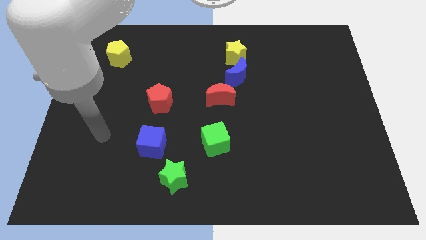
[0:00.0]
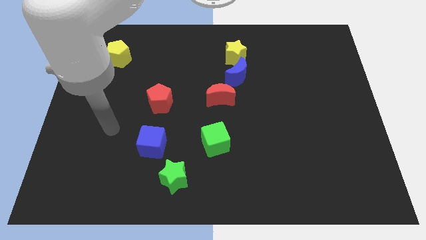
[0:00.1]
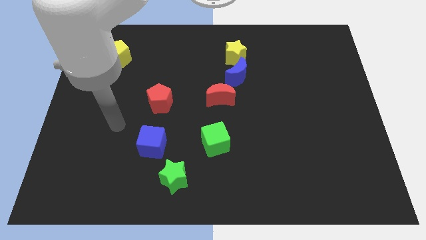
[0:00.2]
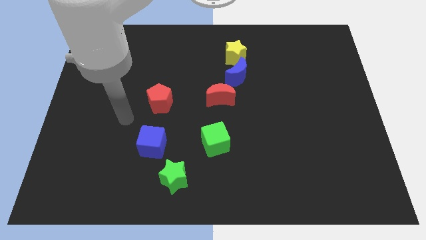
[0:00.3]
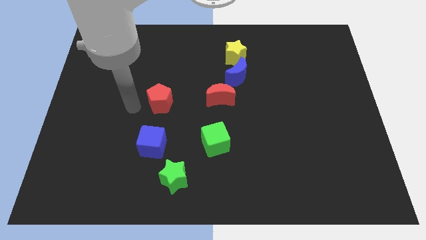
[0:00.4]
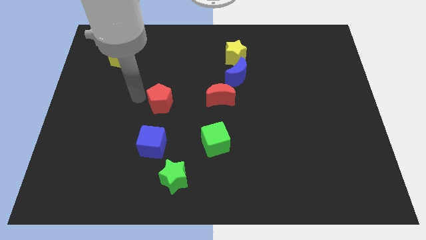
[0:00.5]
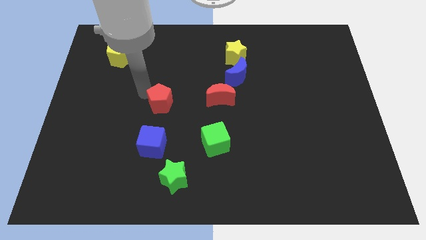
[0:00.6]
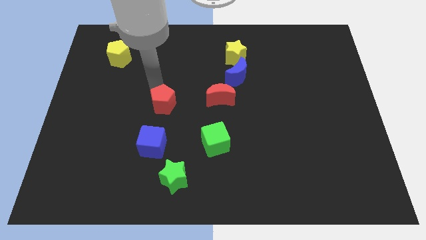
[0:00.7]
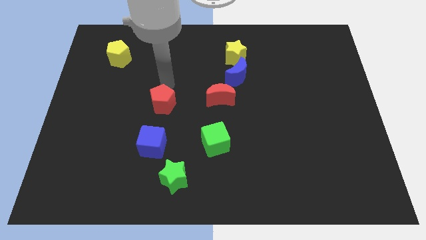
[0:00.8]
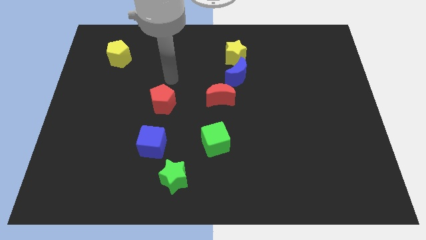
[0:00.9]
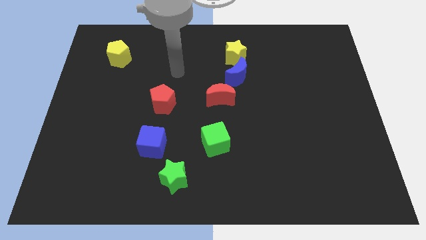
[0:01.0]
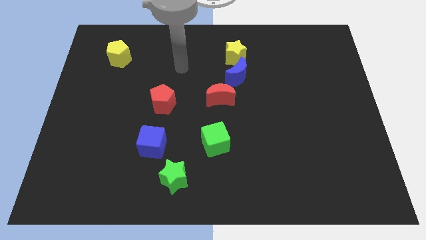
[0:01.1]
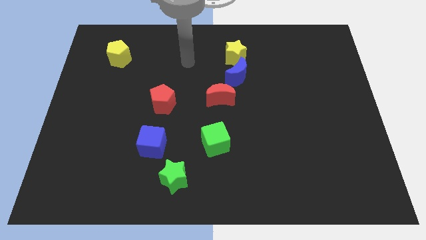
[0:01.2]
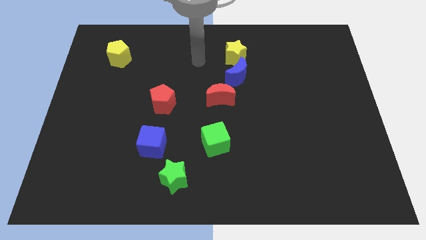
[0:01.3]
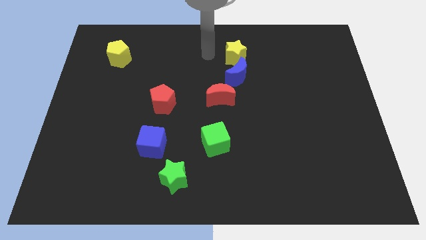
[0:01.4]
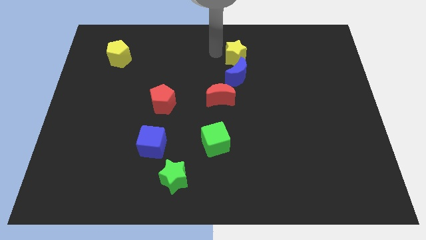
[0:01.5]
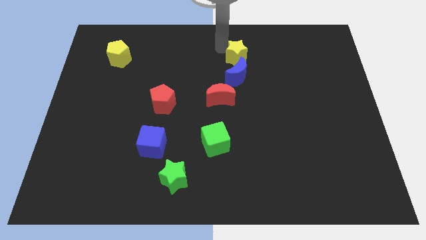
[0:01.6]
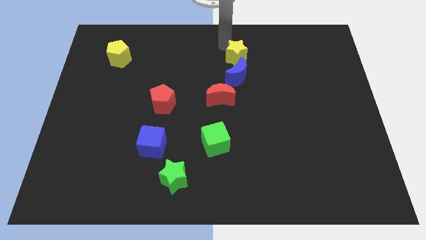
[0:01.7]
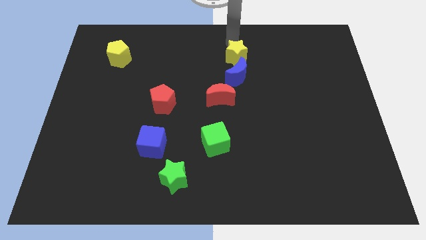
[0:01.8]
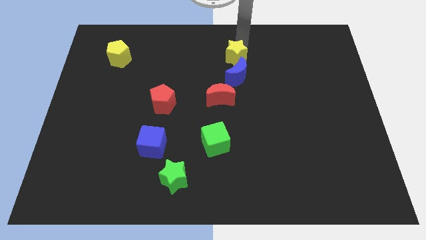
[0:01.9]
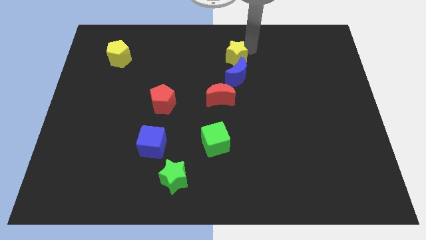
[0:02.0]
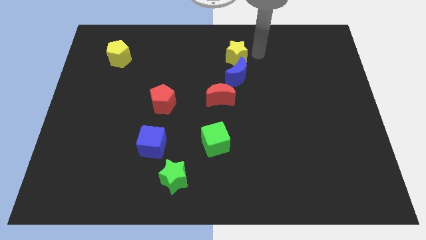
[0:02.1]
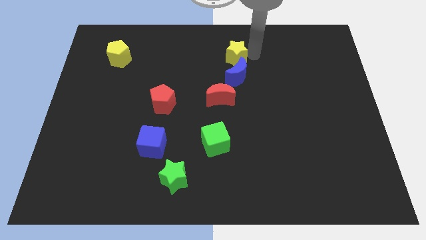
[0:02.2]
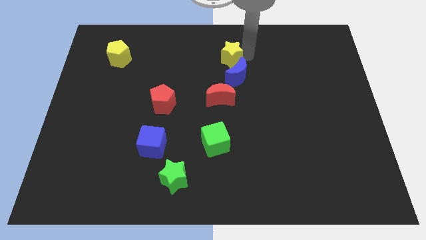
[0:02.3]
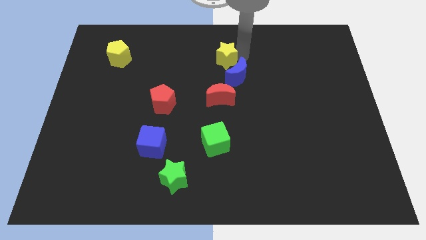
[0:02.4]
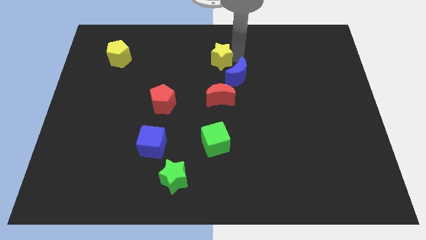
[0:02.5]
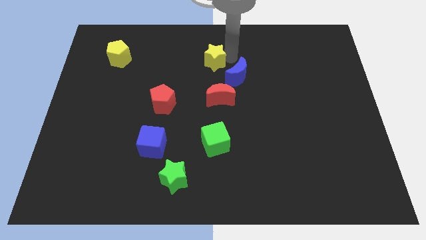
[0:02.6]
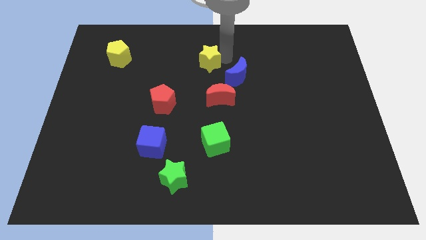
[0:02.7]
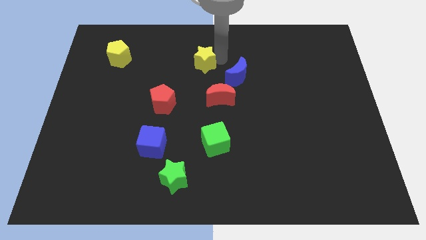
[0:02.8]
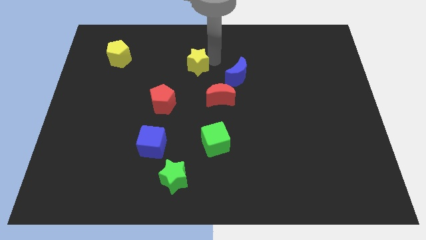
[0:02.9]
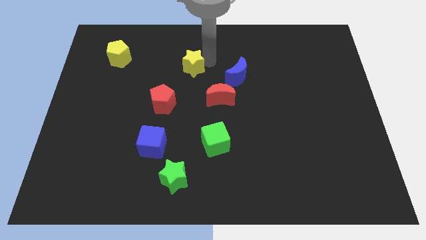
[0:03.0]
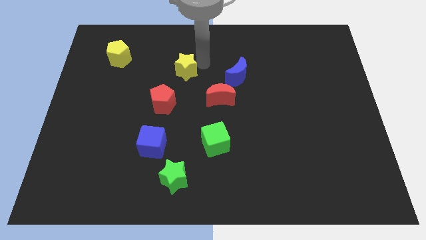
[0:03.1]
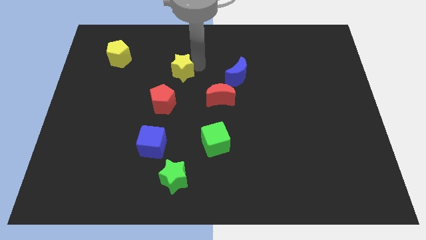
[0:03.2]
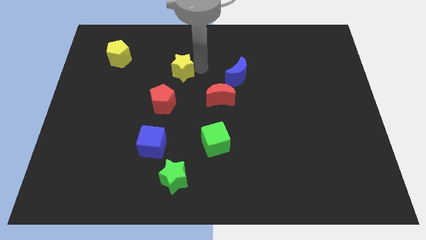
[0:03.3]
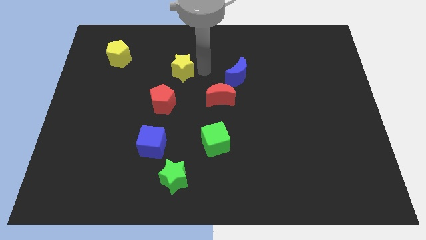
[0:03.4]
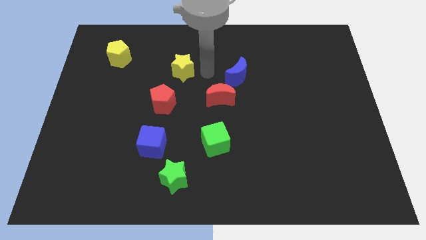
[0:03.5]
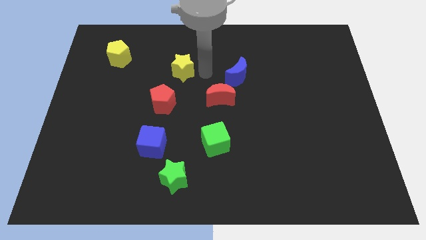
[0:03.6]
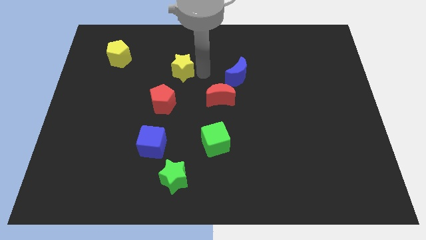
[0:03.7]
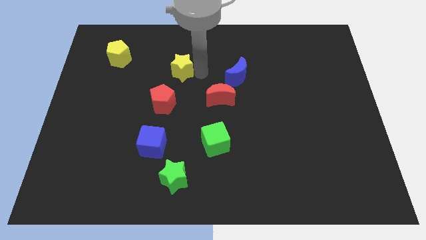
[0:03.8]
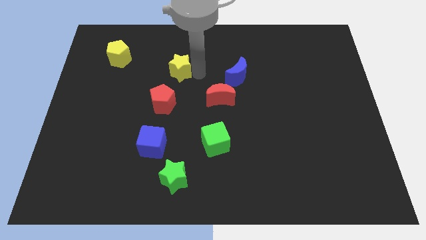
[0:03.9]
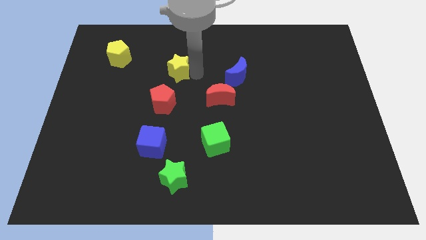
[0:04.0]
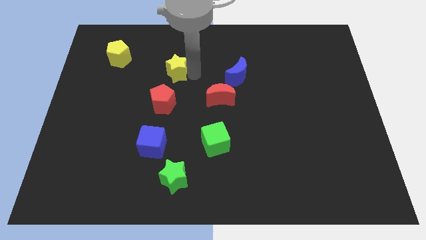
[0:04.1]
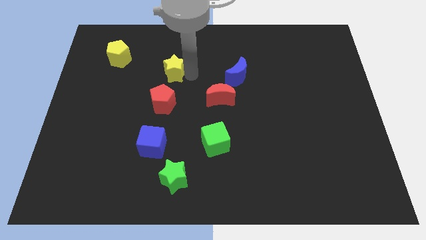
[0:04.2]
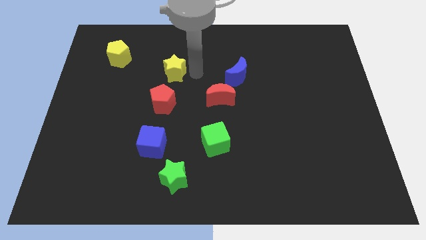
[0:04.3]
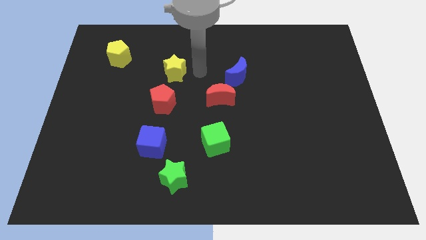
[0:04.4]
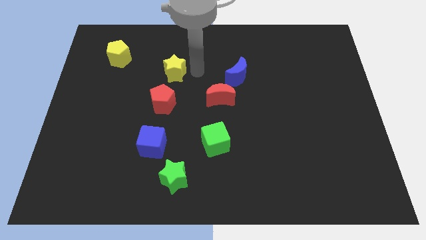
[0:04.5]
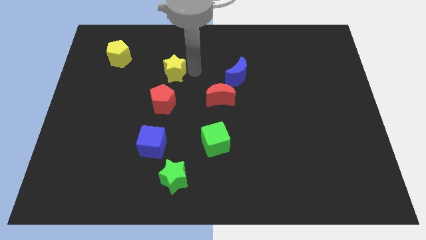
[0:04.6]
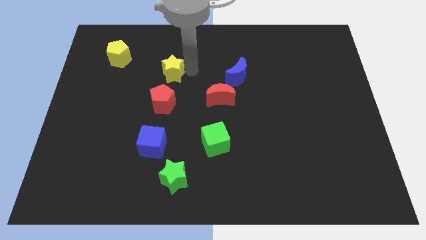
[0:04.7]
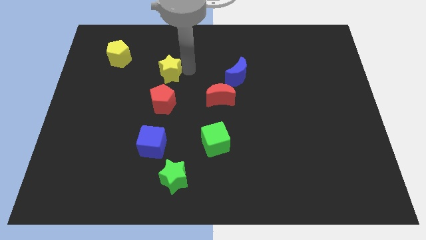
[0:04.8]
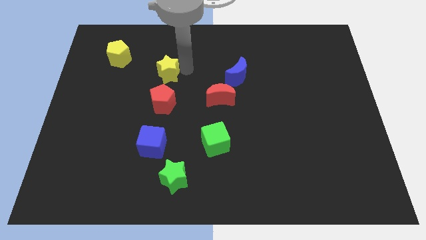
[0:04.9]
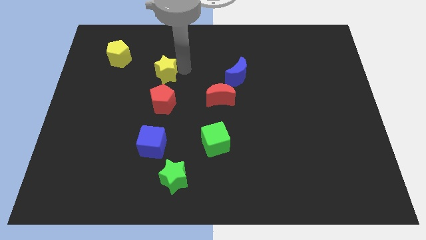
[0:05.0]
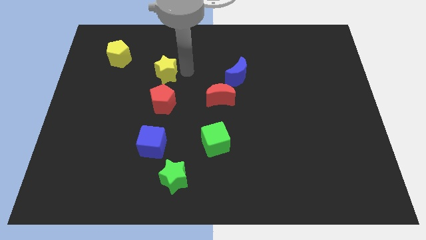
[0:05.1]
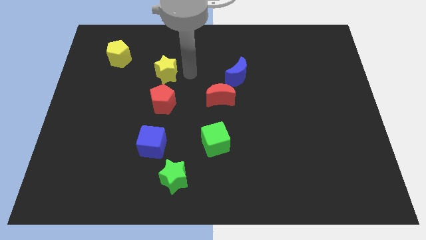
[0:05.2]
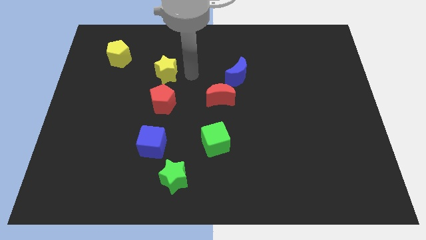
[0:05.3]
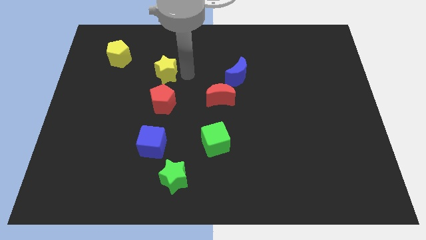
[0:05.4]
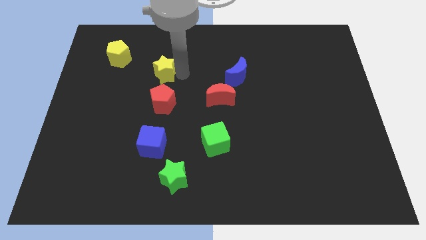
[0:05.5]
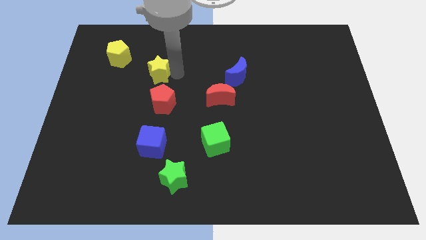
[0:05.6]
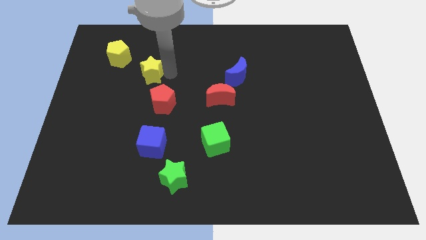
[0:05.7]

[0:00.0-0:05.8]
push the yellow star diagonally down and to the right of the yellow pentagon
